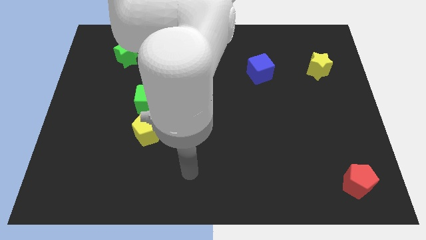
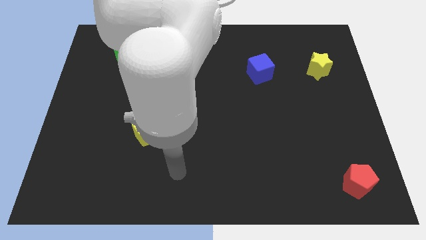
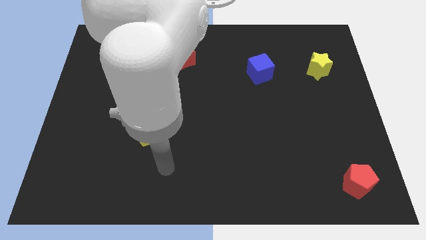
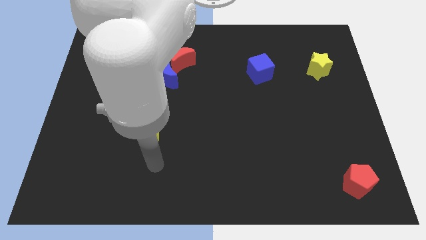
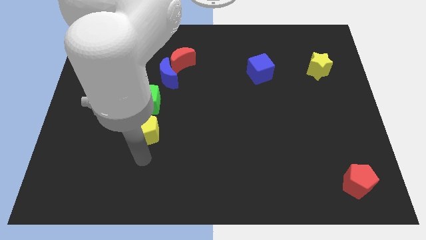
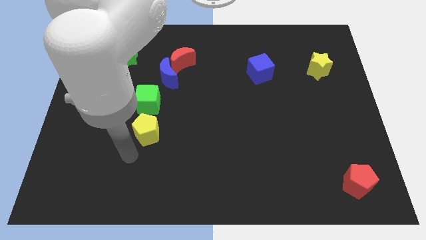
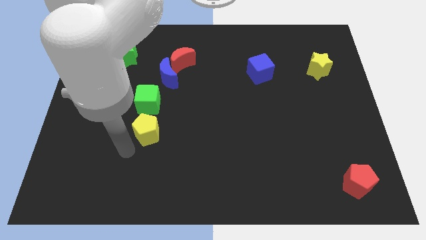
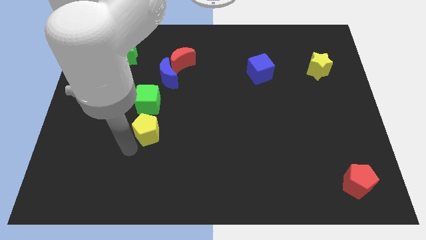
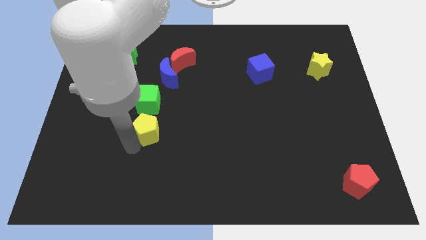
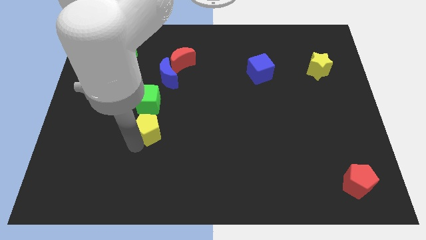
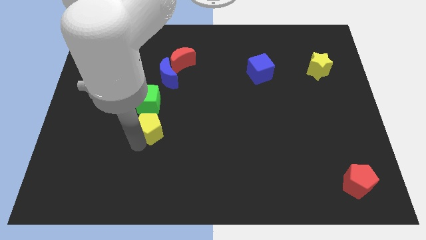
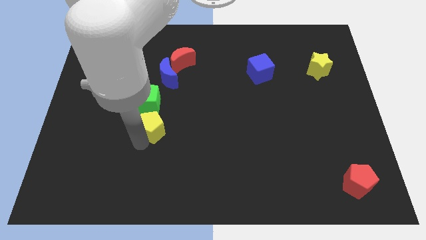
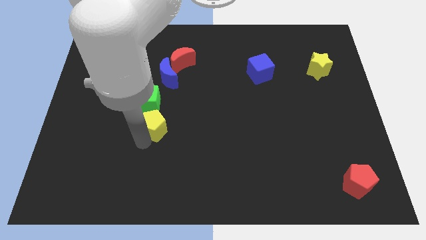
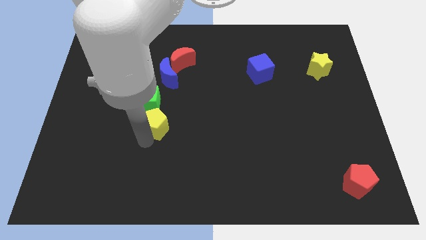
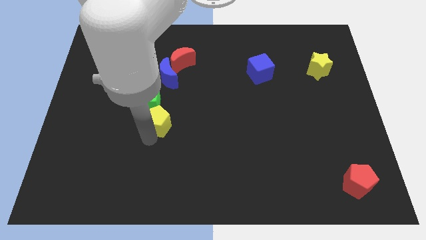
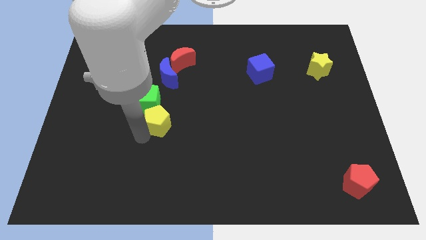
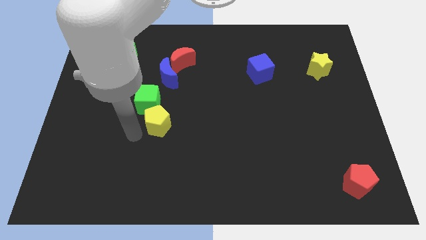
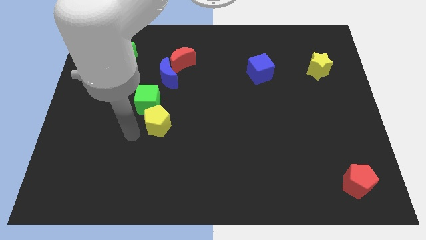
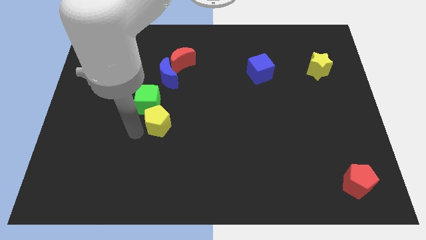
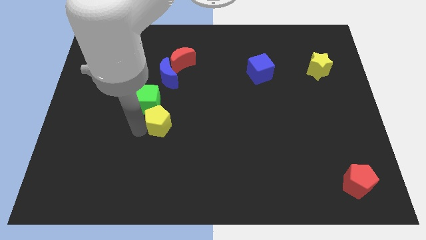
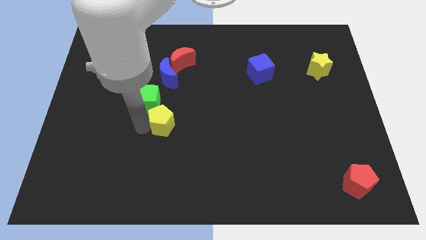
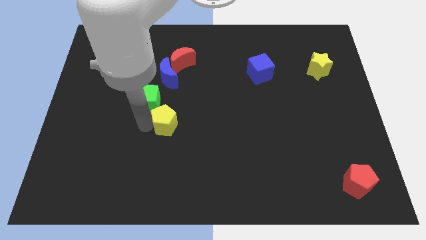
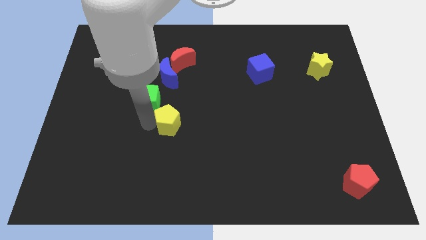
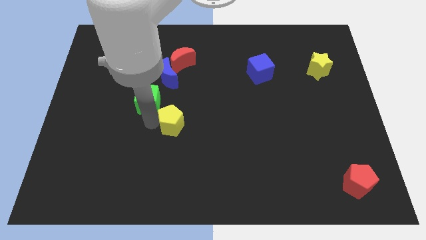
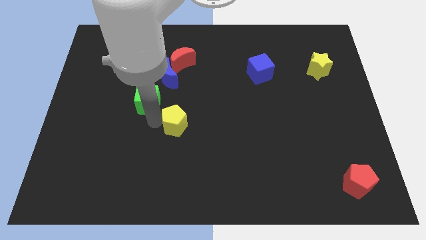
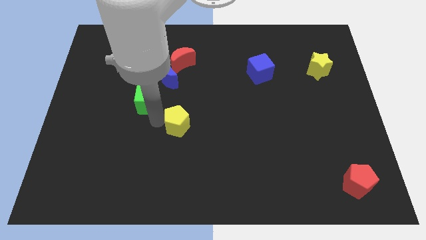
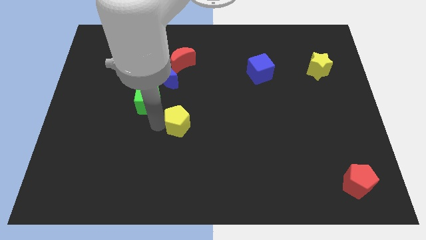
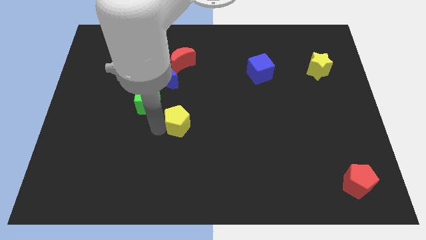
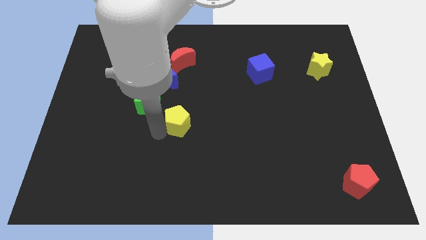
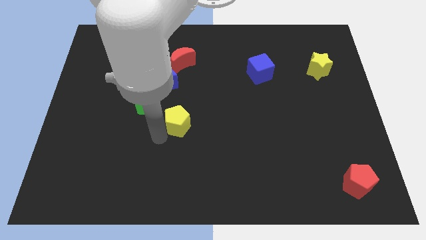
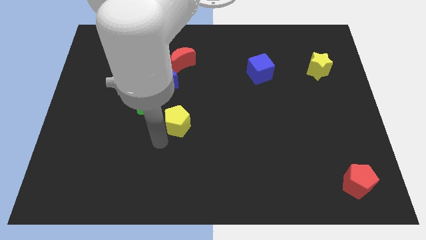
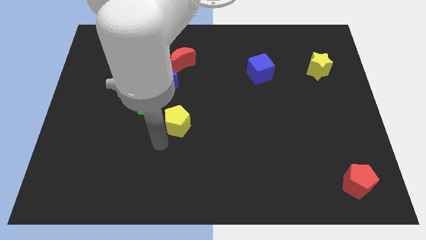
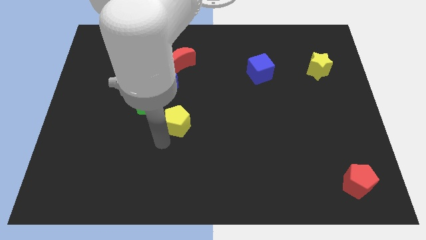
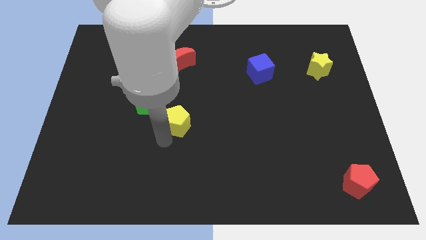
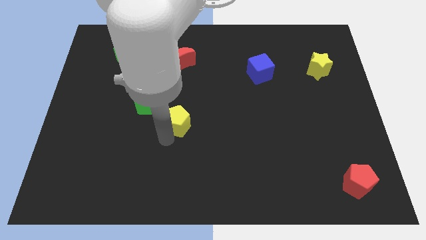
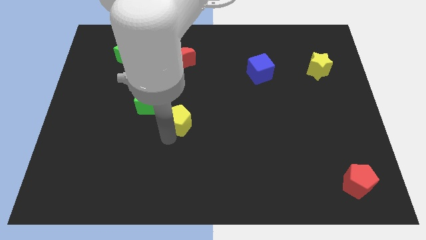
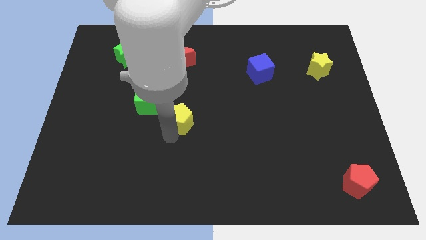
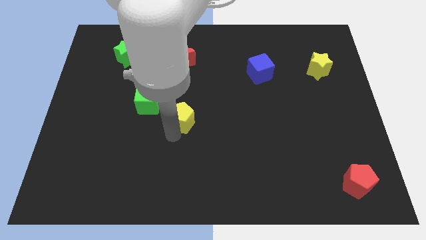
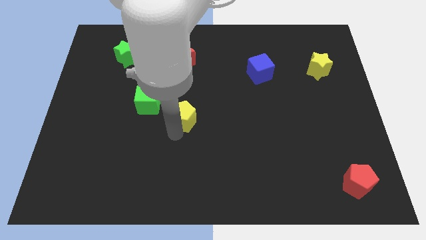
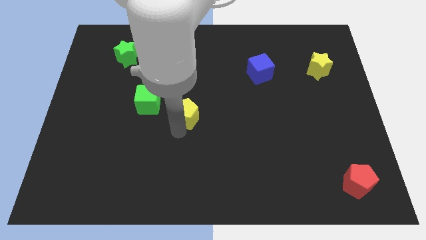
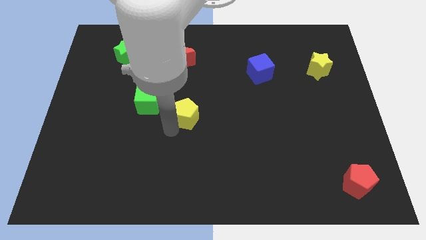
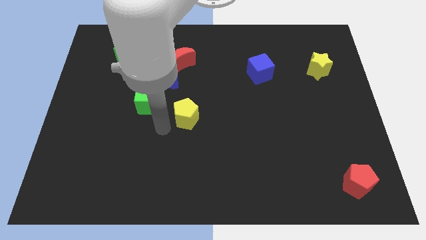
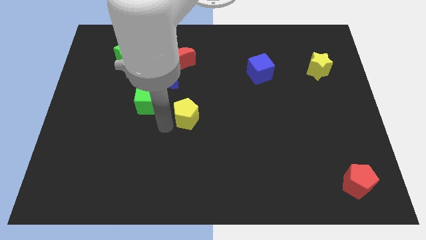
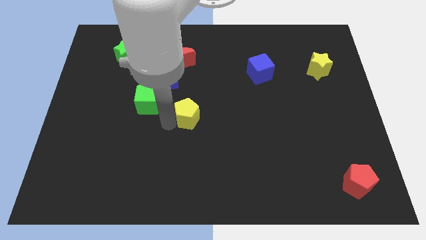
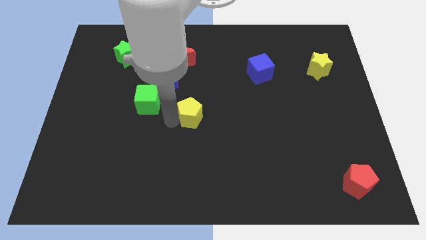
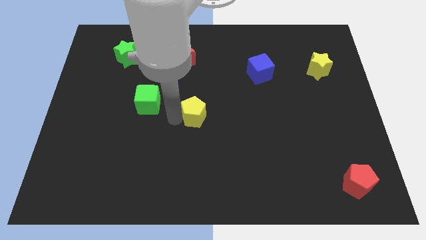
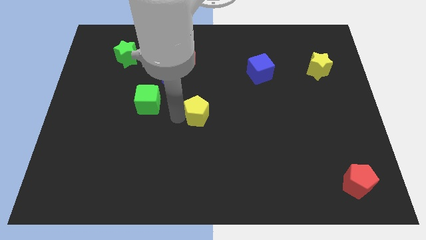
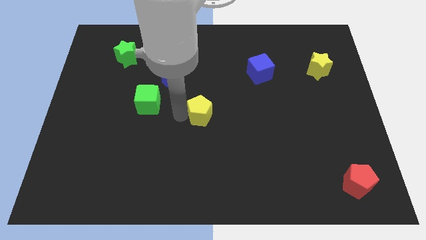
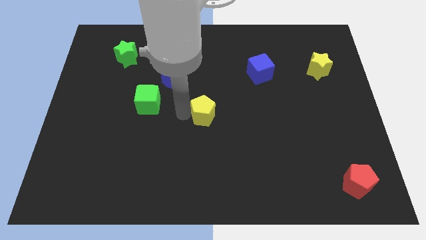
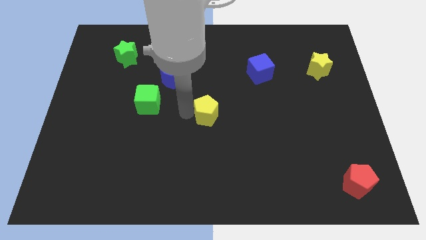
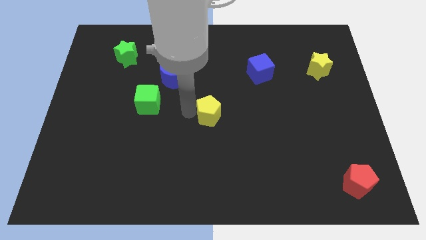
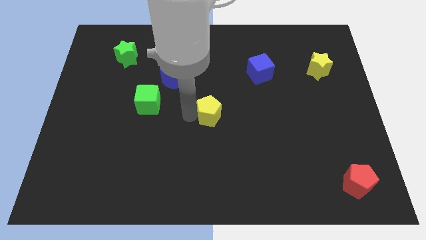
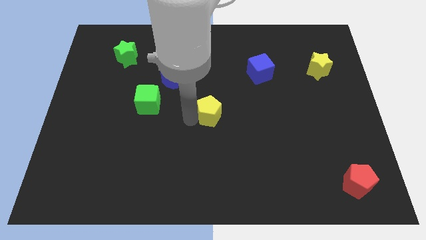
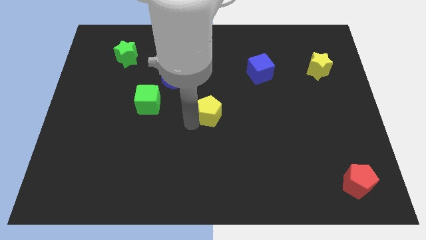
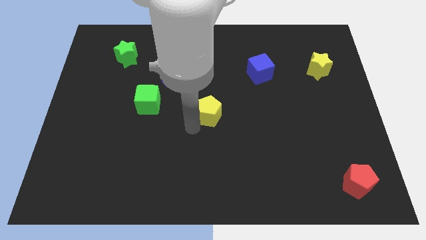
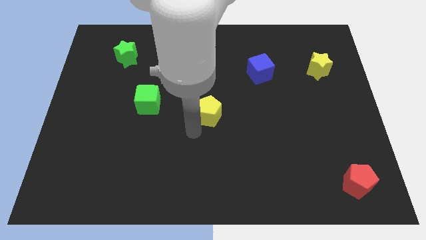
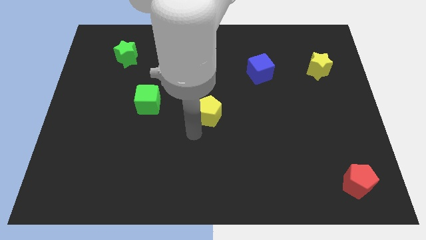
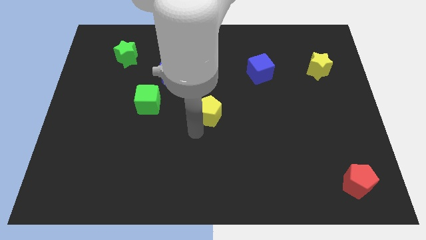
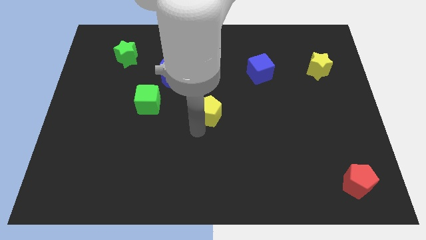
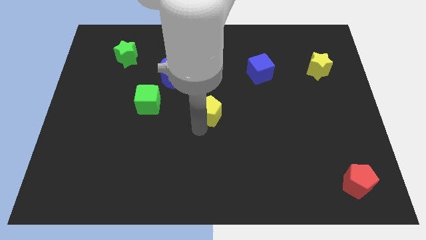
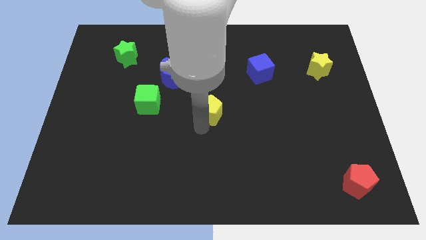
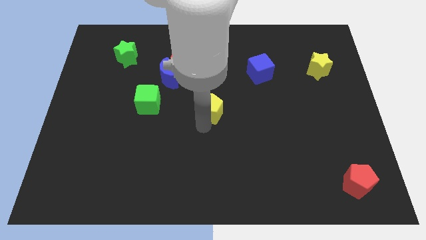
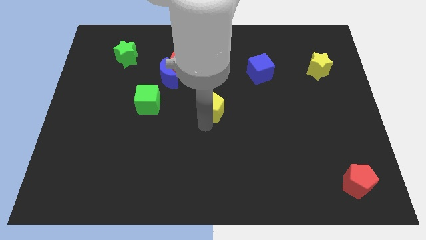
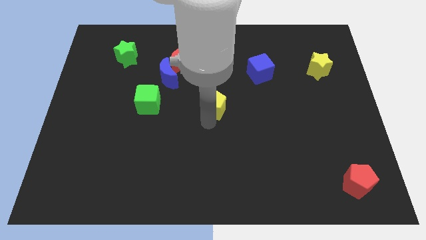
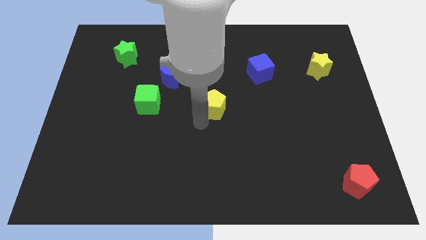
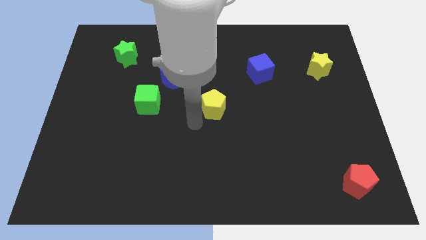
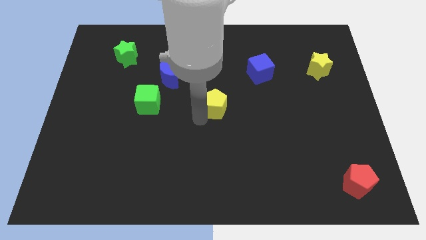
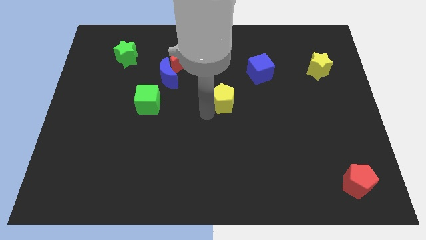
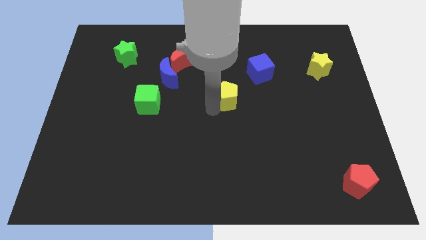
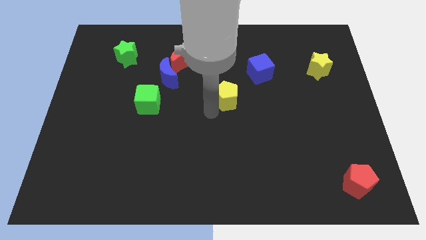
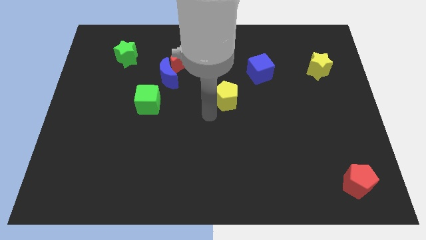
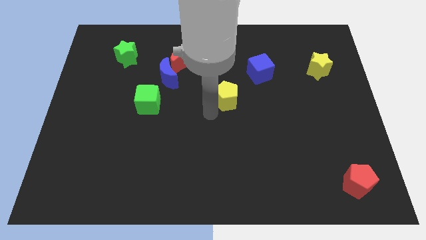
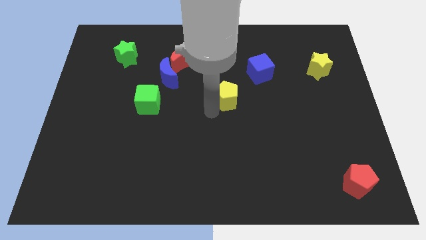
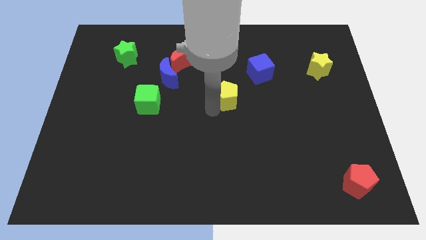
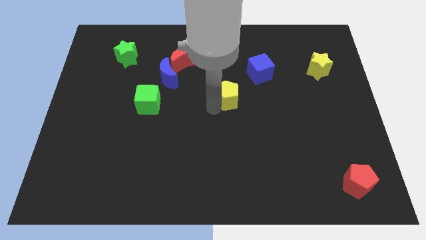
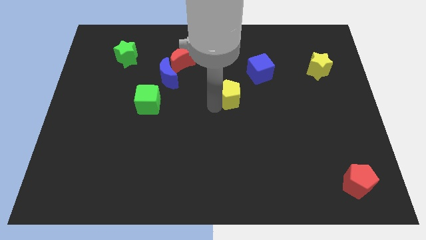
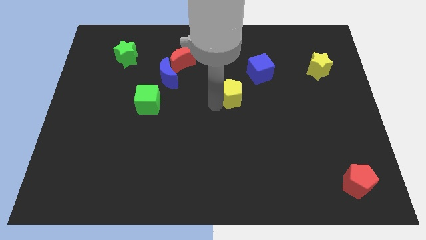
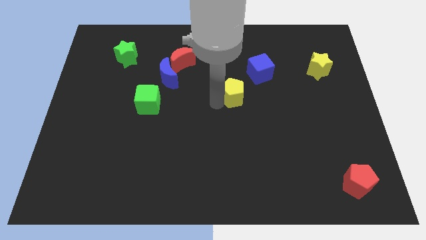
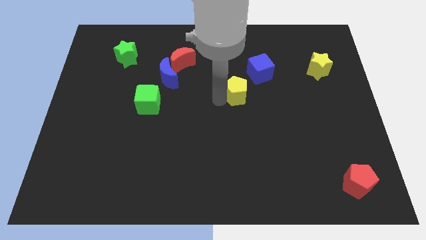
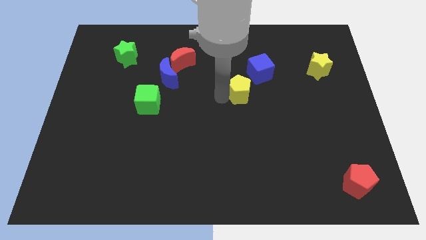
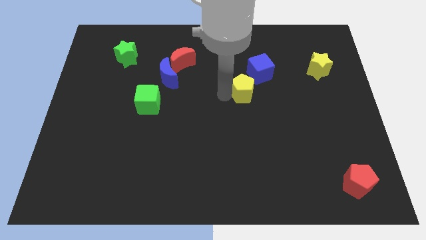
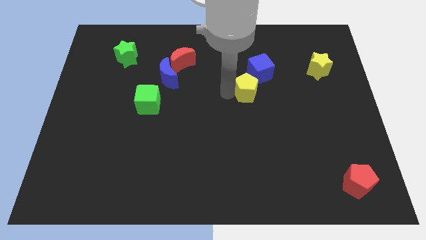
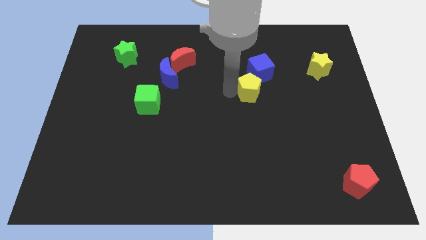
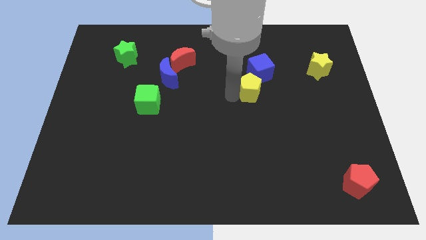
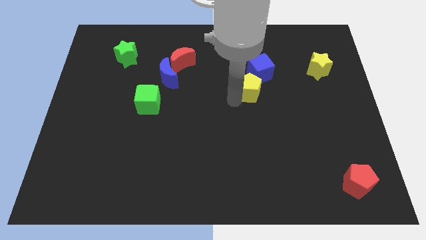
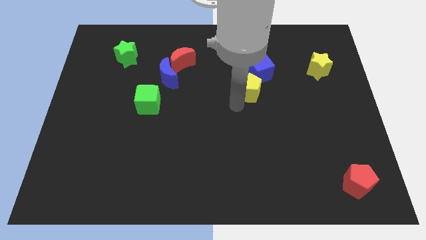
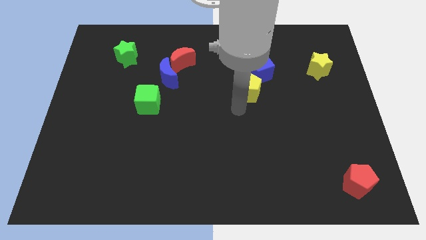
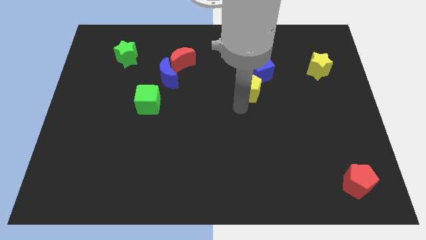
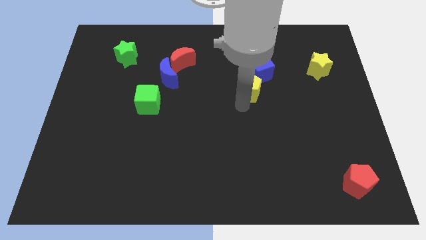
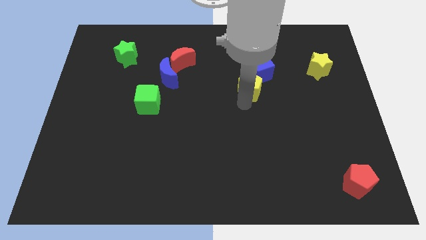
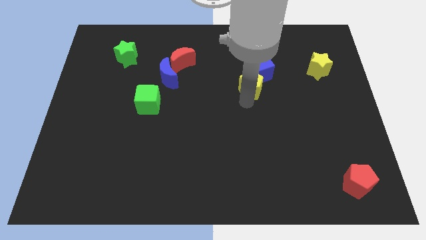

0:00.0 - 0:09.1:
push the yellow pentagon towards the blue cube
